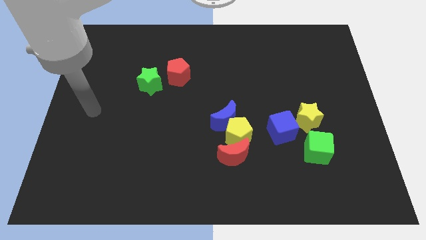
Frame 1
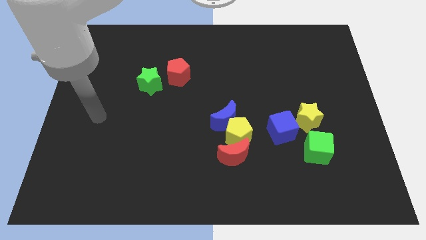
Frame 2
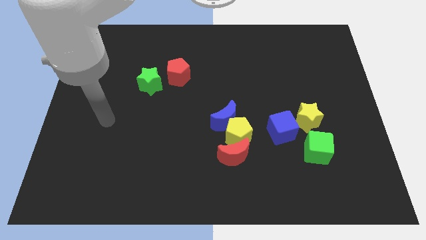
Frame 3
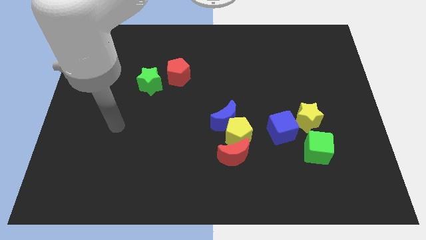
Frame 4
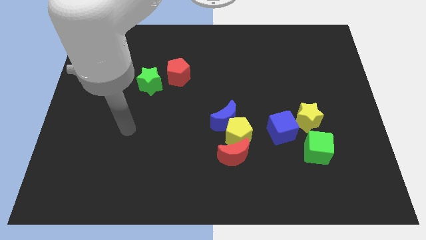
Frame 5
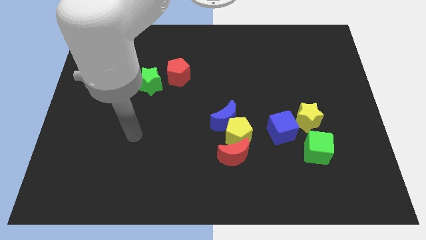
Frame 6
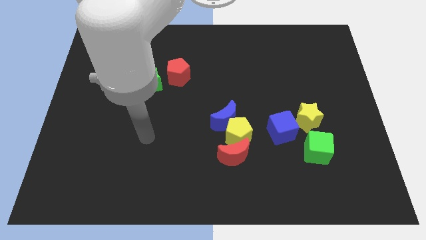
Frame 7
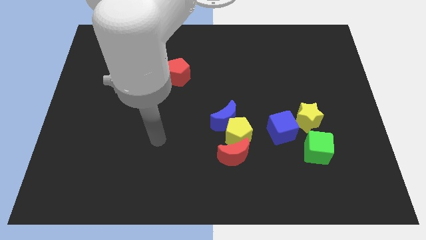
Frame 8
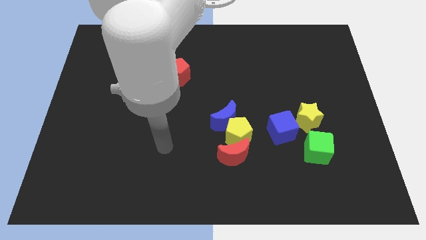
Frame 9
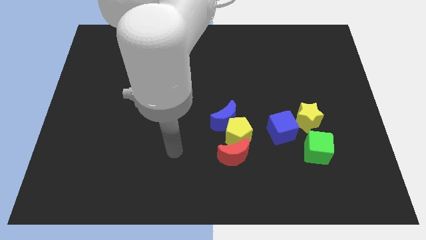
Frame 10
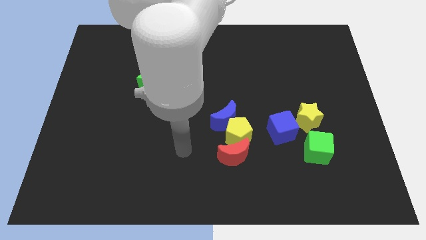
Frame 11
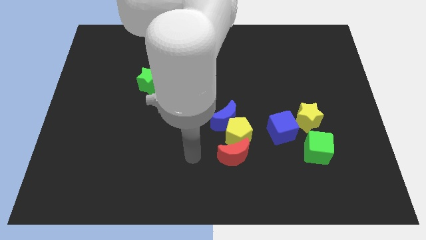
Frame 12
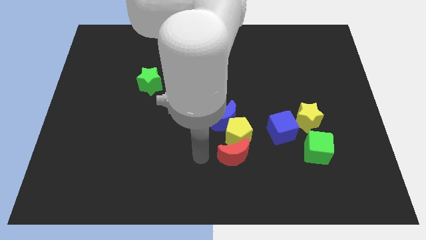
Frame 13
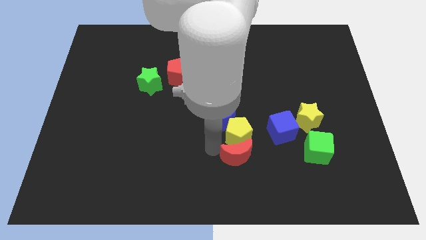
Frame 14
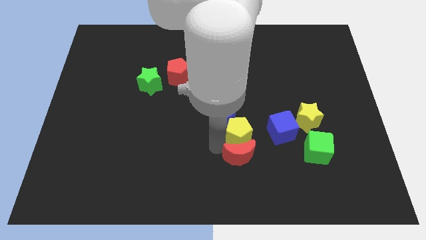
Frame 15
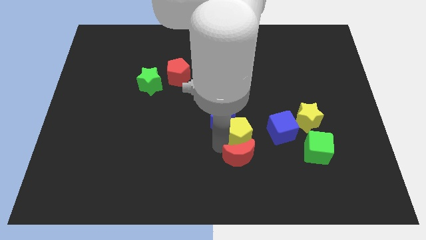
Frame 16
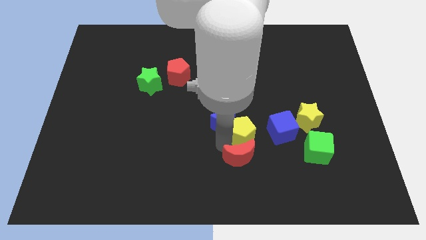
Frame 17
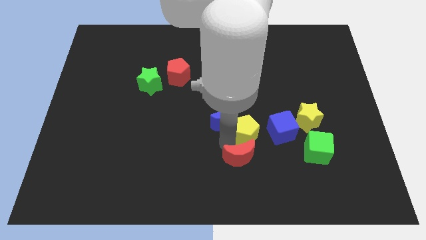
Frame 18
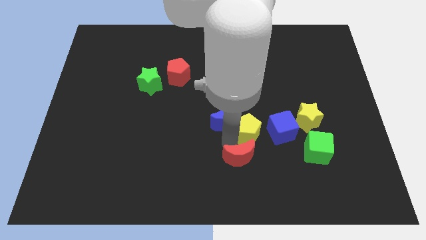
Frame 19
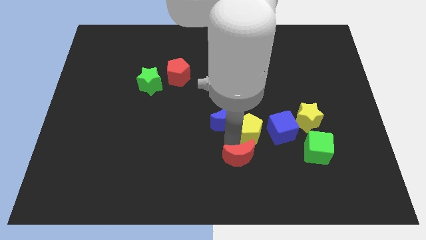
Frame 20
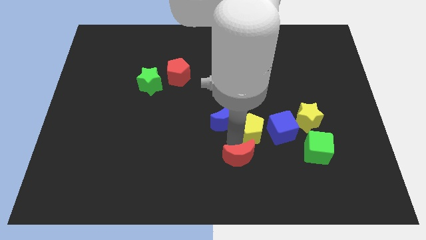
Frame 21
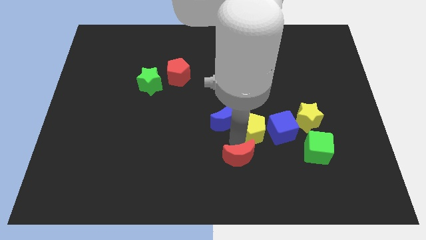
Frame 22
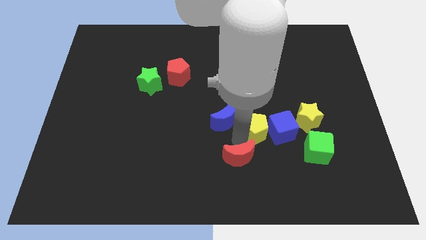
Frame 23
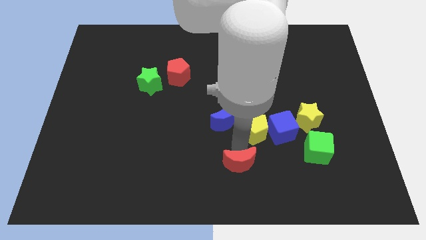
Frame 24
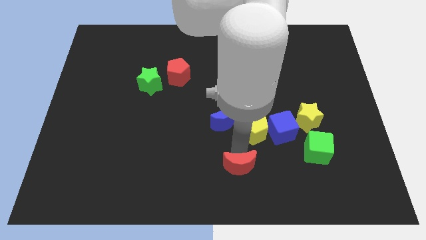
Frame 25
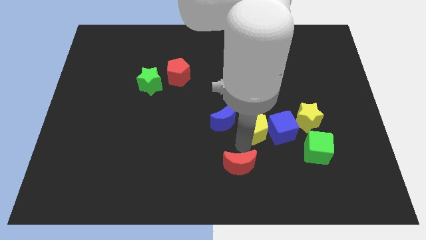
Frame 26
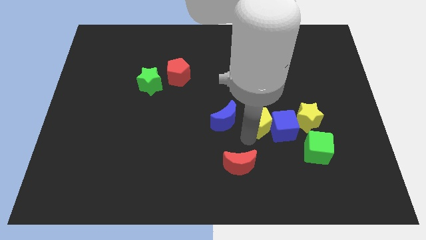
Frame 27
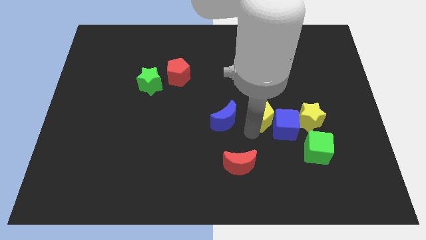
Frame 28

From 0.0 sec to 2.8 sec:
move the yellow pentagon upwards and right diagonally a little

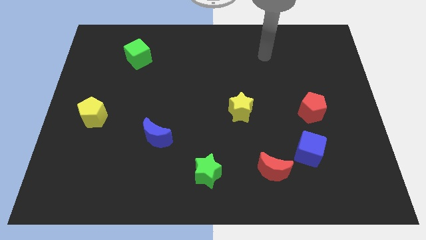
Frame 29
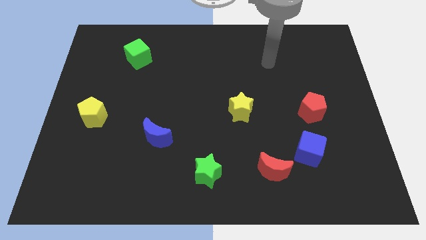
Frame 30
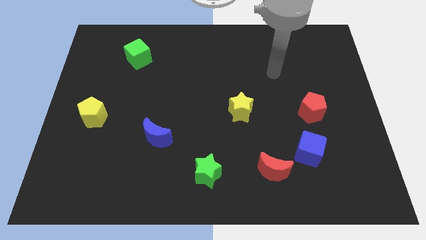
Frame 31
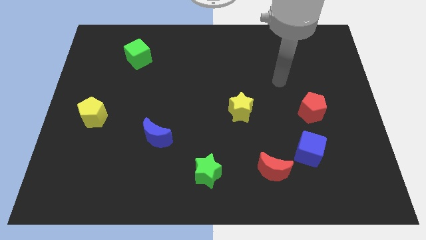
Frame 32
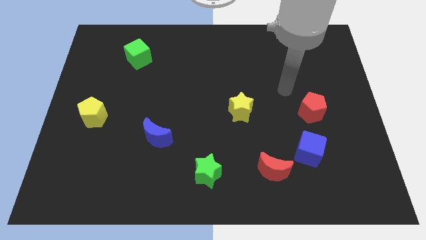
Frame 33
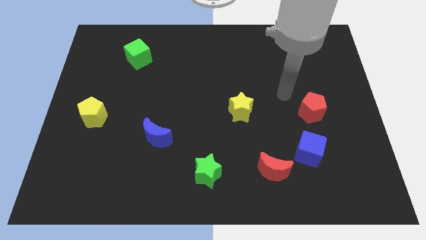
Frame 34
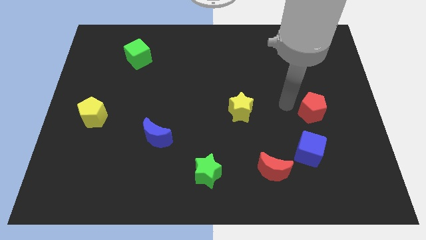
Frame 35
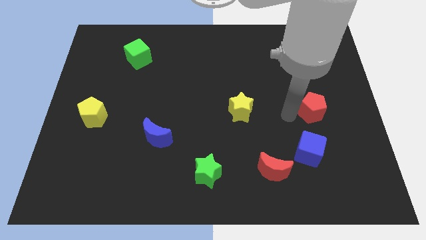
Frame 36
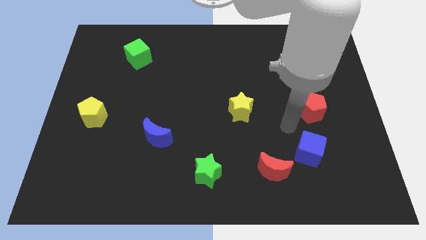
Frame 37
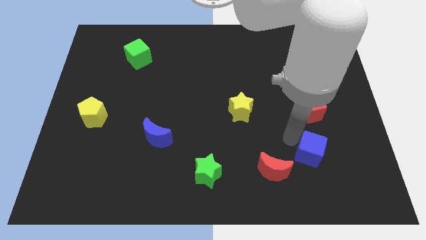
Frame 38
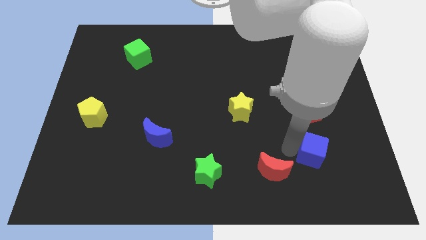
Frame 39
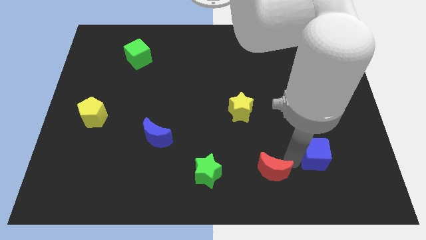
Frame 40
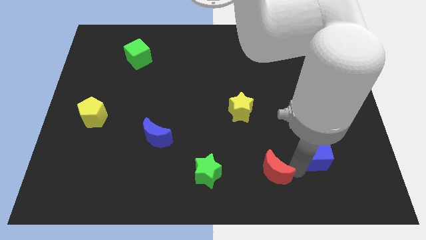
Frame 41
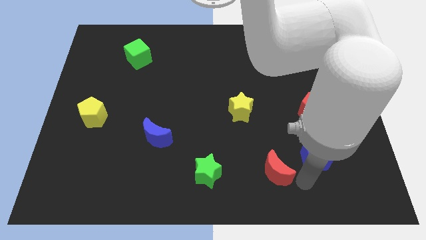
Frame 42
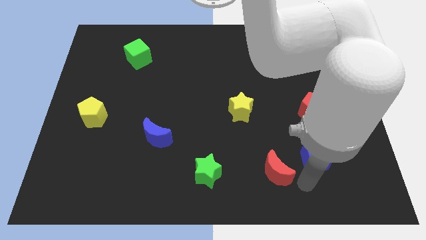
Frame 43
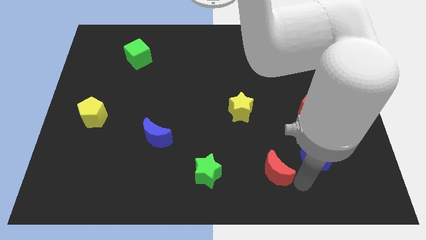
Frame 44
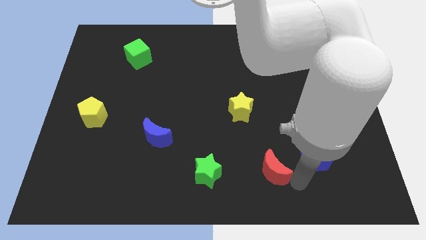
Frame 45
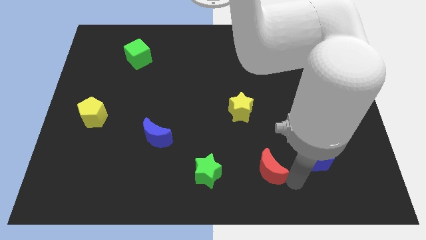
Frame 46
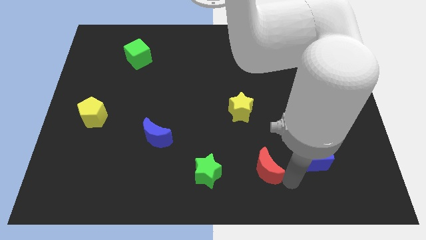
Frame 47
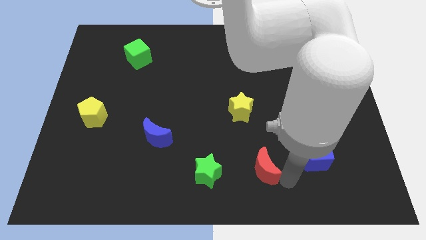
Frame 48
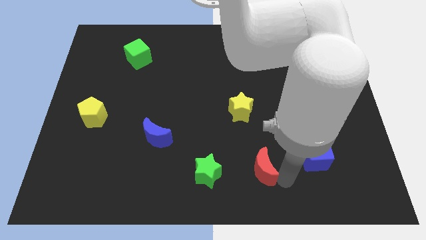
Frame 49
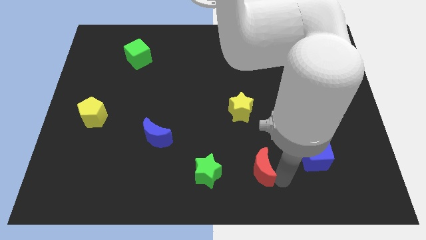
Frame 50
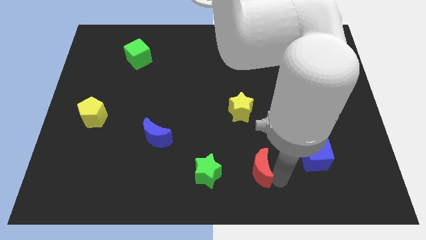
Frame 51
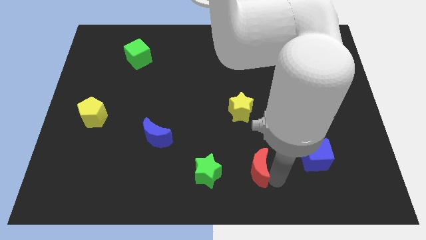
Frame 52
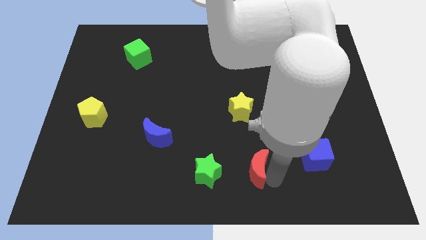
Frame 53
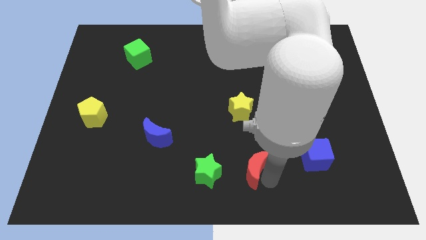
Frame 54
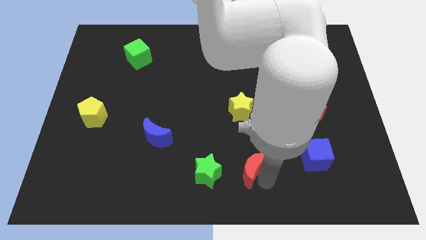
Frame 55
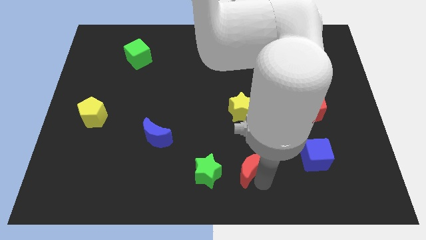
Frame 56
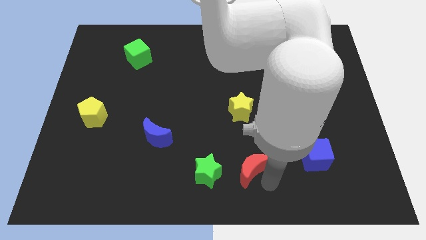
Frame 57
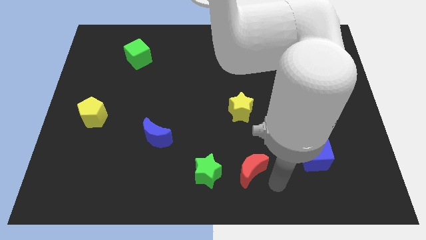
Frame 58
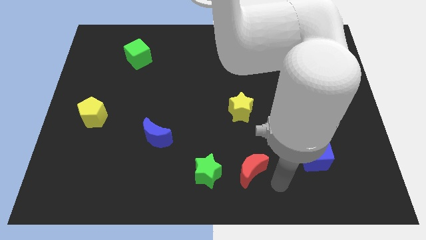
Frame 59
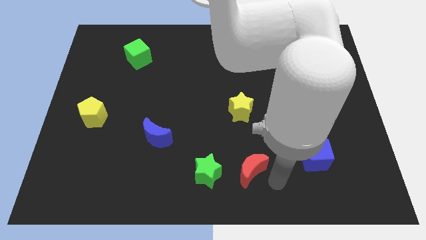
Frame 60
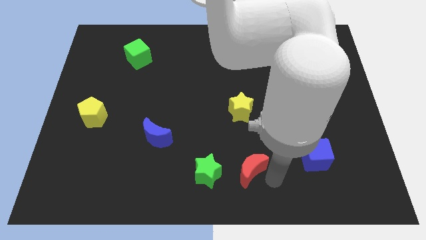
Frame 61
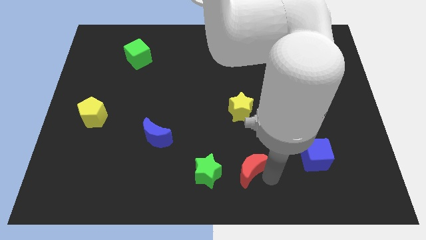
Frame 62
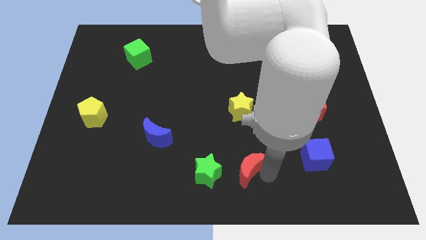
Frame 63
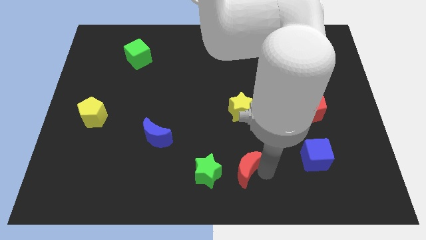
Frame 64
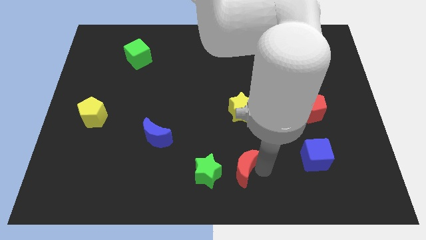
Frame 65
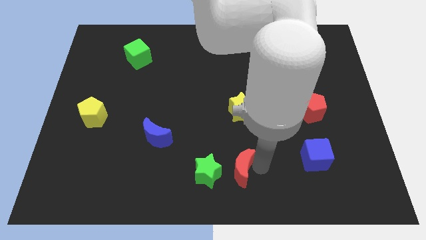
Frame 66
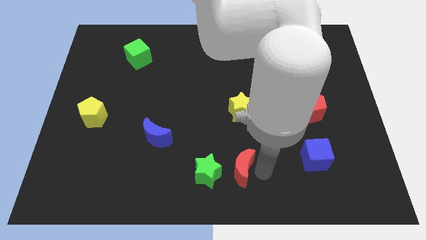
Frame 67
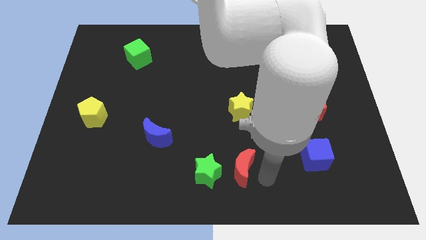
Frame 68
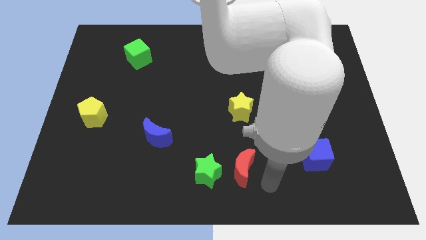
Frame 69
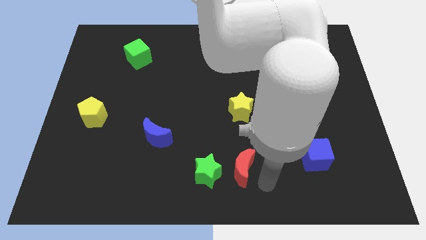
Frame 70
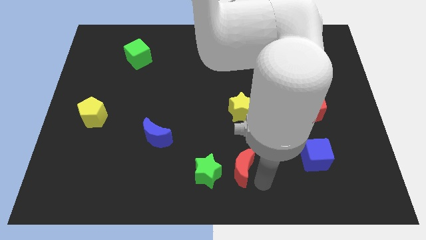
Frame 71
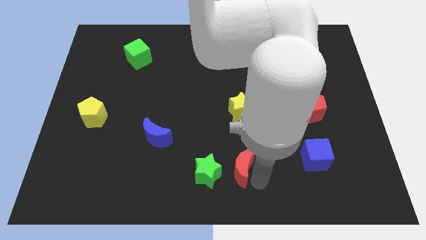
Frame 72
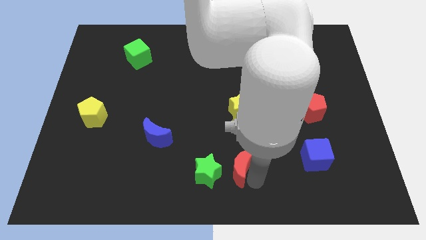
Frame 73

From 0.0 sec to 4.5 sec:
slide the red moon a bit left

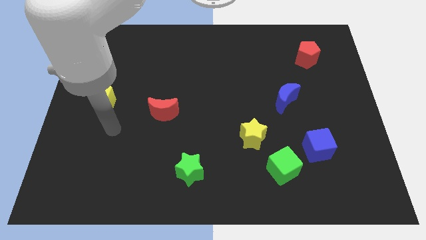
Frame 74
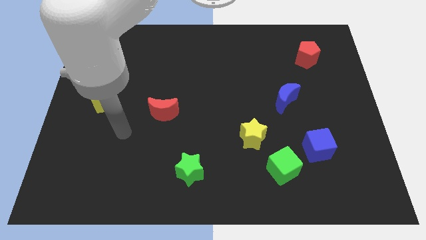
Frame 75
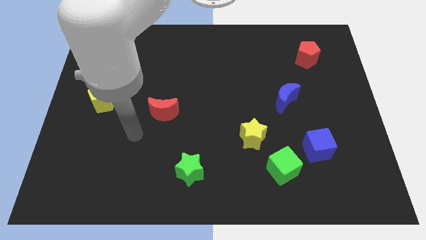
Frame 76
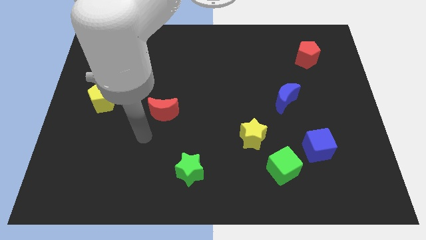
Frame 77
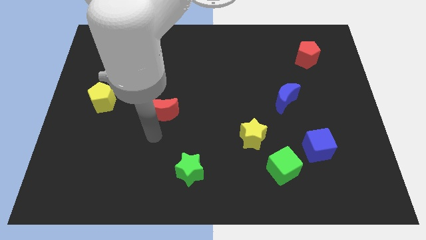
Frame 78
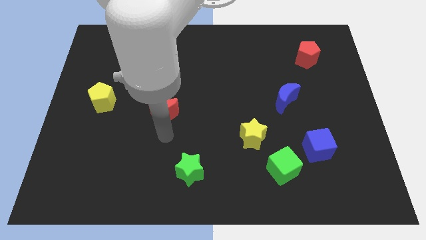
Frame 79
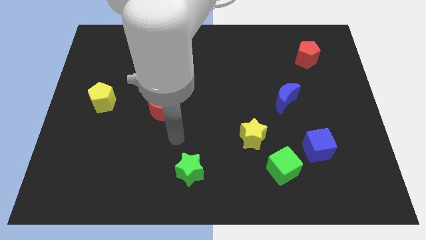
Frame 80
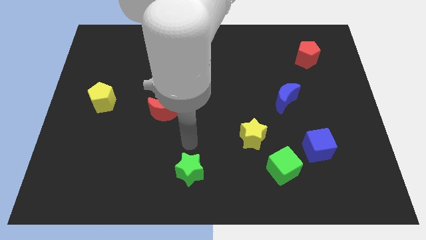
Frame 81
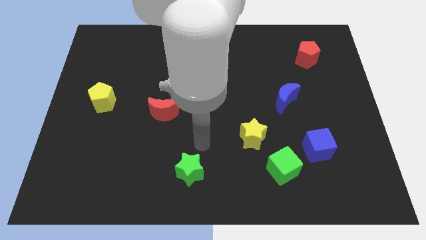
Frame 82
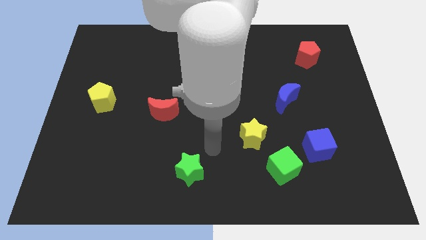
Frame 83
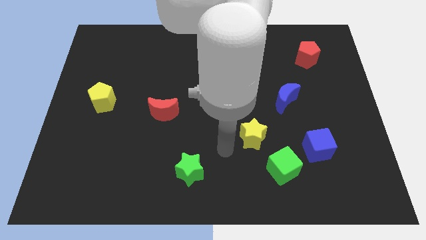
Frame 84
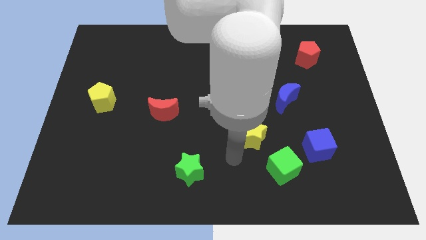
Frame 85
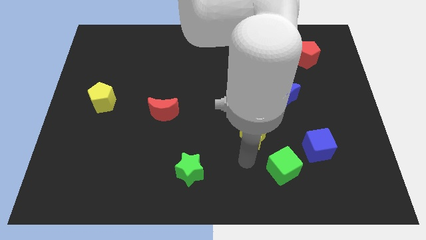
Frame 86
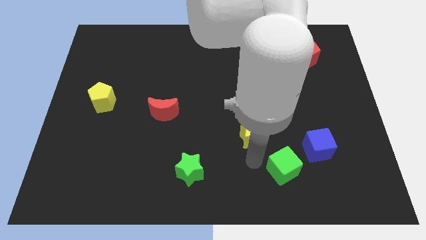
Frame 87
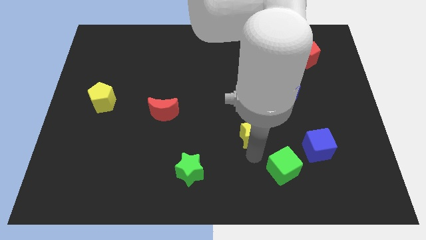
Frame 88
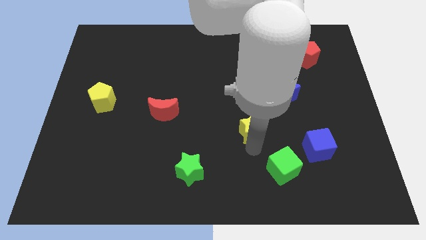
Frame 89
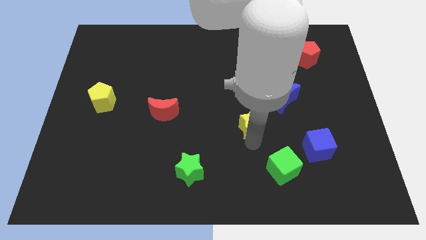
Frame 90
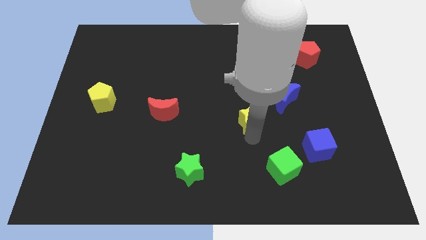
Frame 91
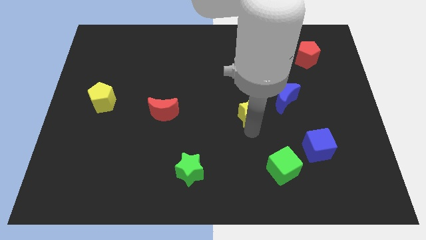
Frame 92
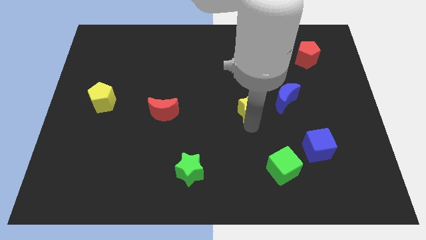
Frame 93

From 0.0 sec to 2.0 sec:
move the yellow star a bit up
